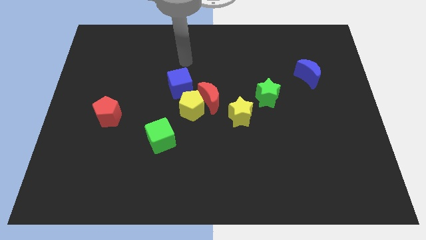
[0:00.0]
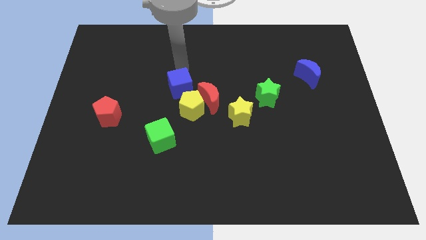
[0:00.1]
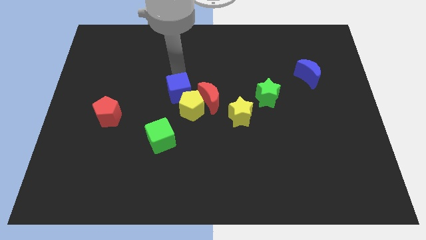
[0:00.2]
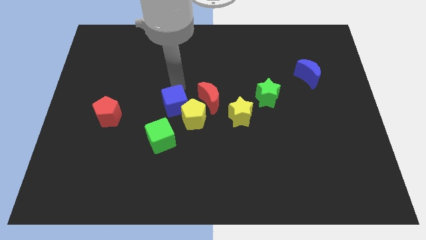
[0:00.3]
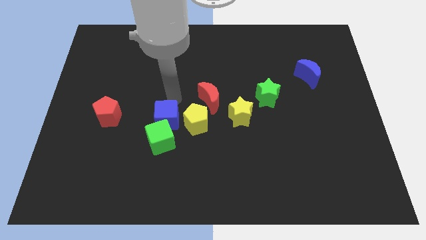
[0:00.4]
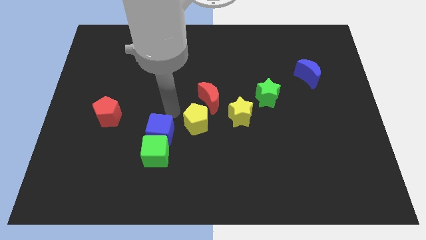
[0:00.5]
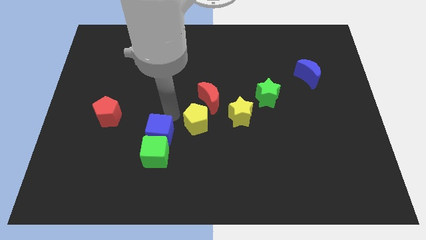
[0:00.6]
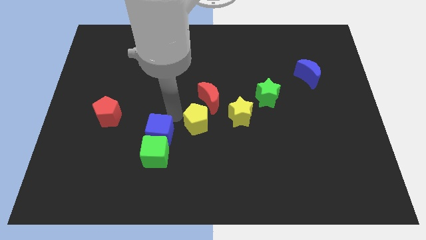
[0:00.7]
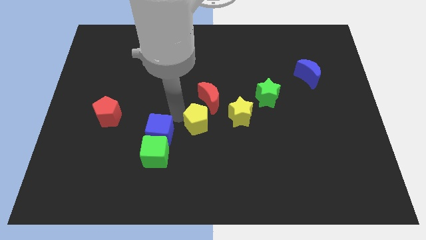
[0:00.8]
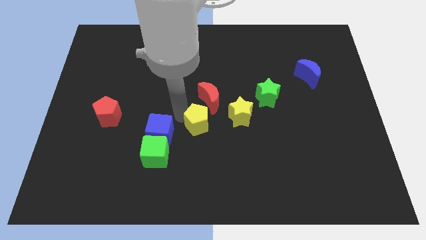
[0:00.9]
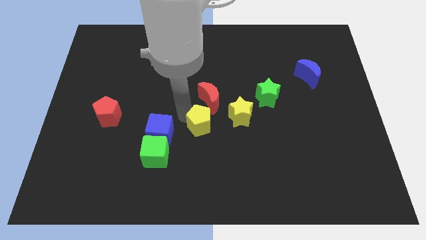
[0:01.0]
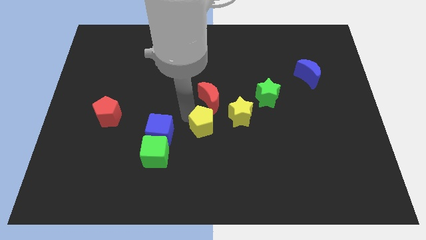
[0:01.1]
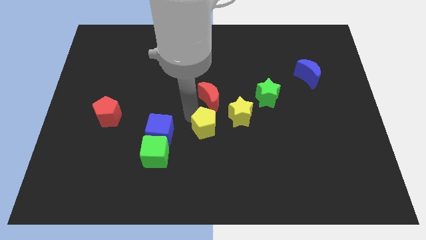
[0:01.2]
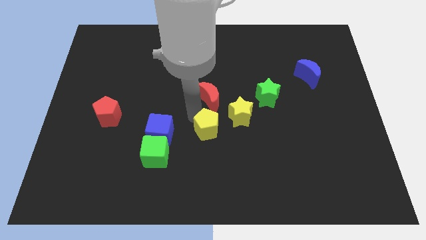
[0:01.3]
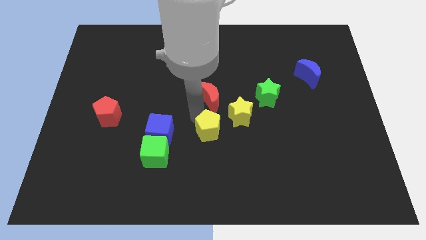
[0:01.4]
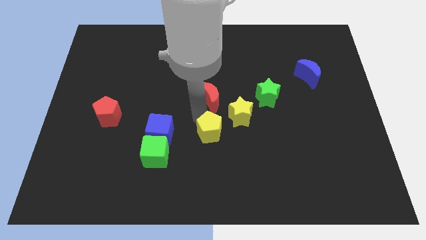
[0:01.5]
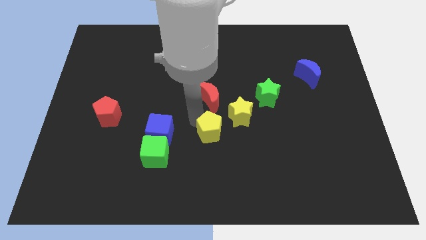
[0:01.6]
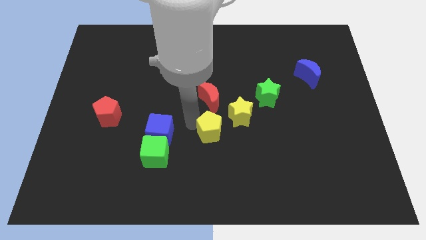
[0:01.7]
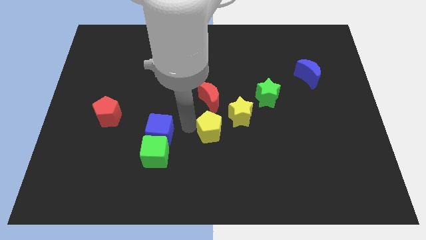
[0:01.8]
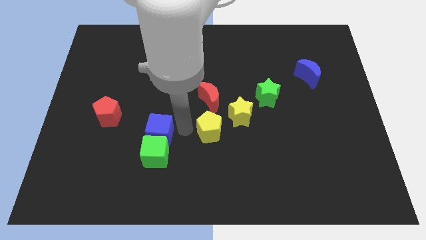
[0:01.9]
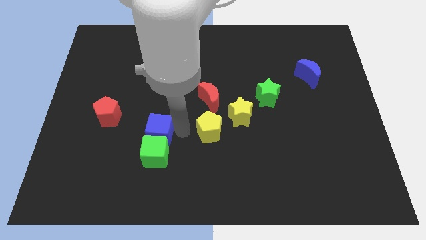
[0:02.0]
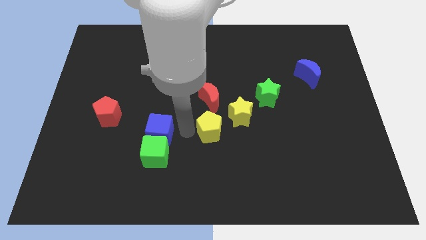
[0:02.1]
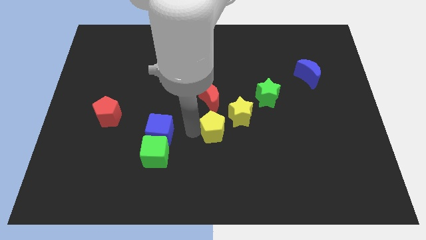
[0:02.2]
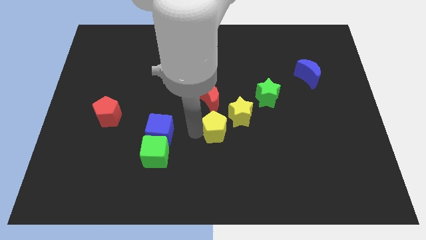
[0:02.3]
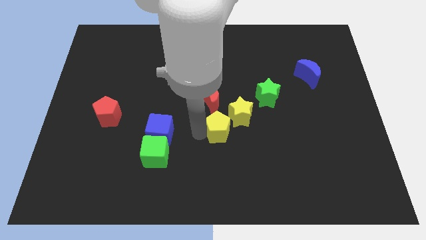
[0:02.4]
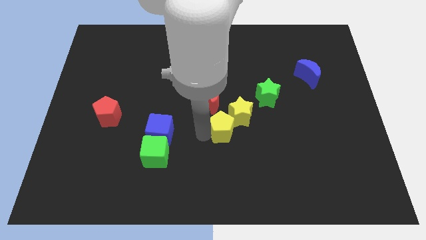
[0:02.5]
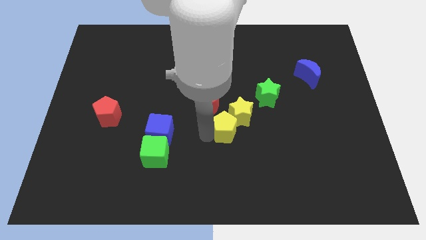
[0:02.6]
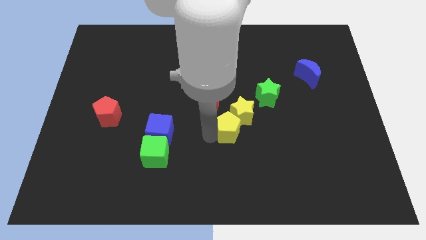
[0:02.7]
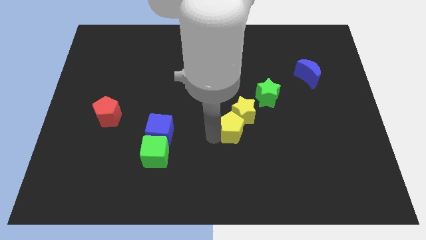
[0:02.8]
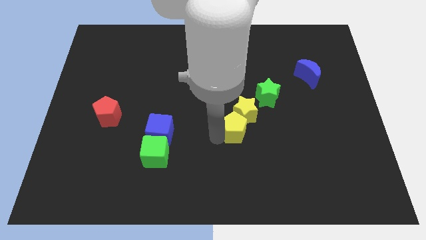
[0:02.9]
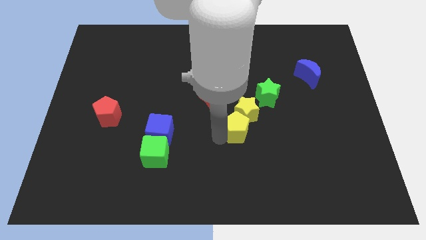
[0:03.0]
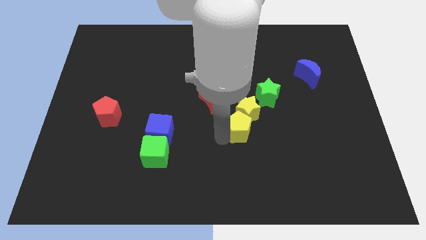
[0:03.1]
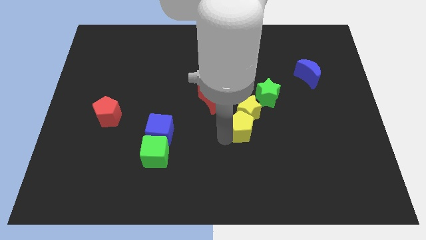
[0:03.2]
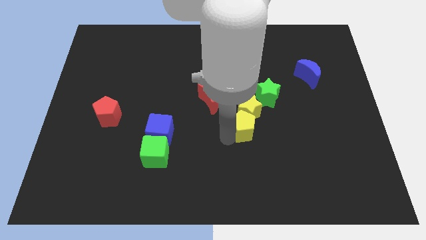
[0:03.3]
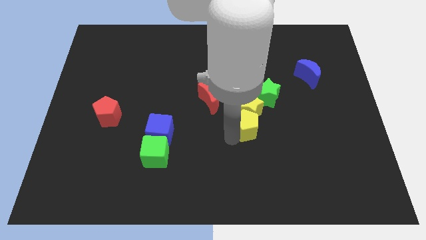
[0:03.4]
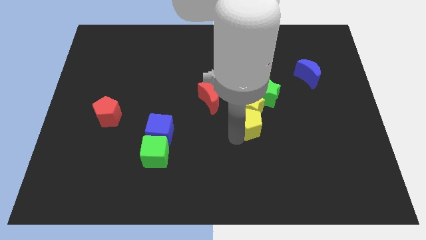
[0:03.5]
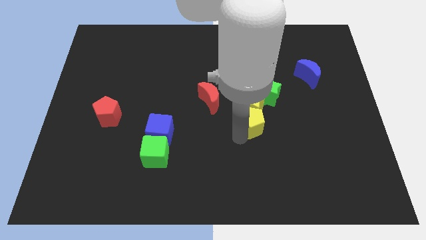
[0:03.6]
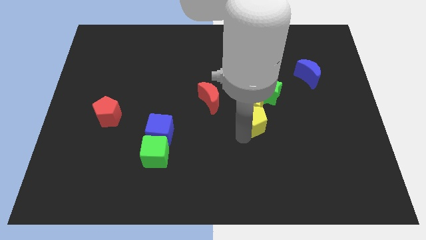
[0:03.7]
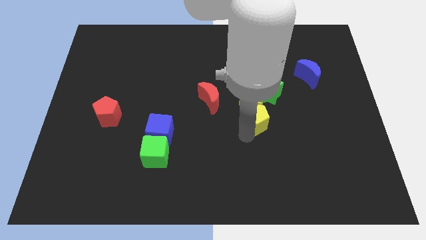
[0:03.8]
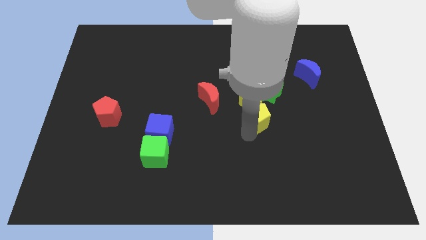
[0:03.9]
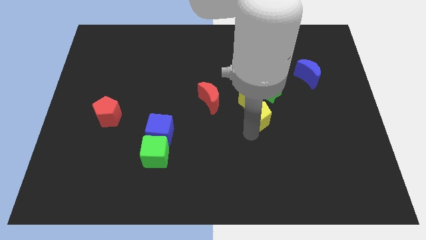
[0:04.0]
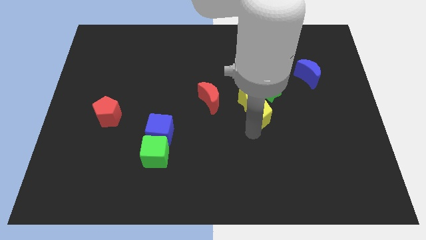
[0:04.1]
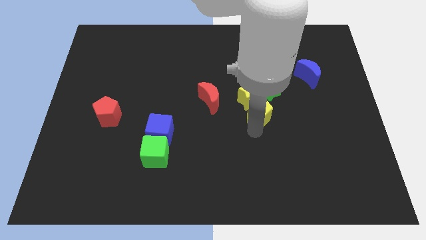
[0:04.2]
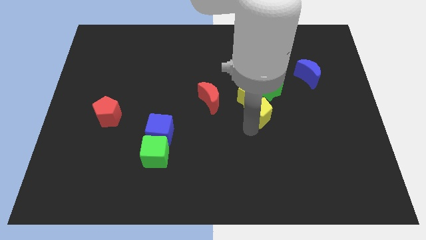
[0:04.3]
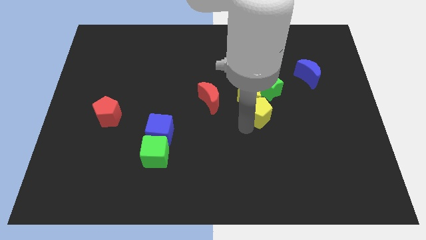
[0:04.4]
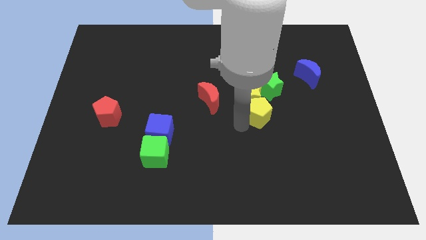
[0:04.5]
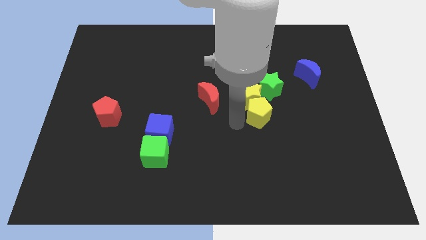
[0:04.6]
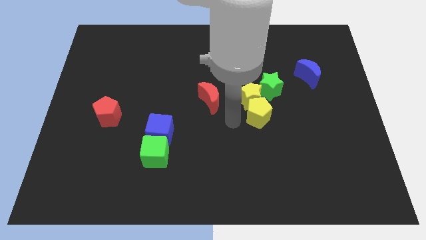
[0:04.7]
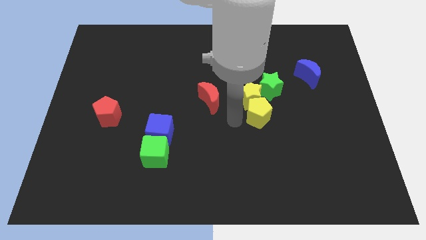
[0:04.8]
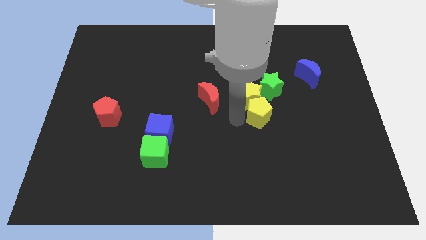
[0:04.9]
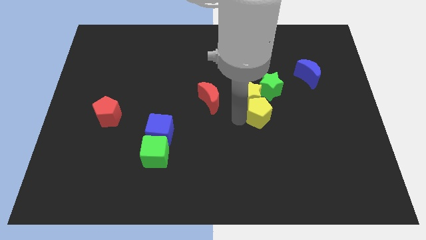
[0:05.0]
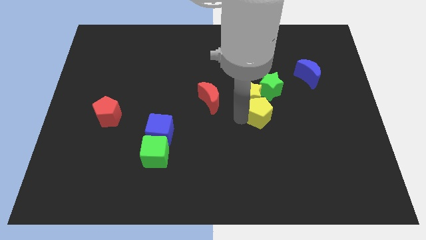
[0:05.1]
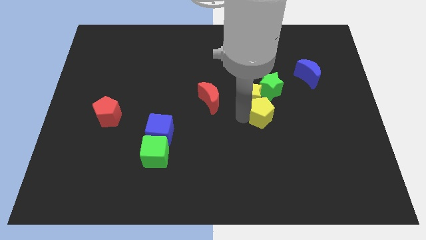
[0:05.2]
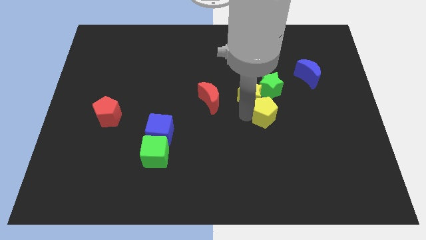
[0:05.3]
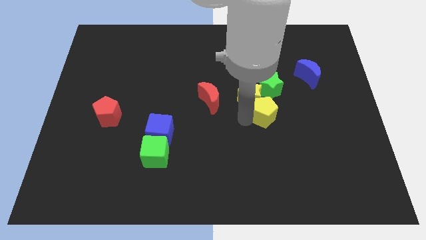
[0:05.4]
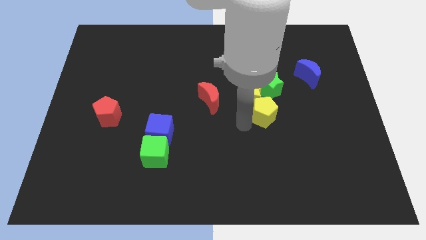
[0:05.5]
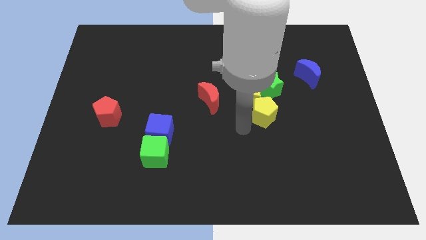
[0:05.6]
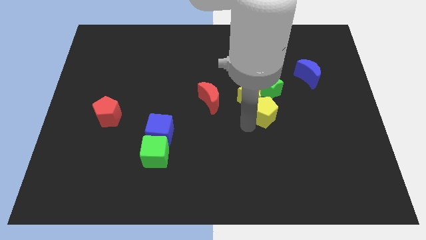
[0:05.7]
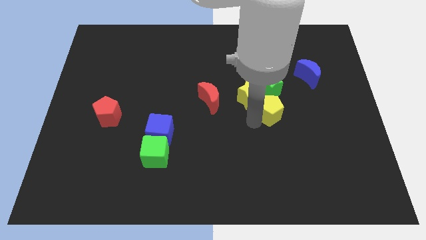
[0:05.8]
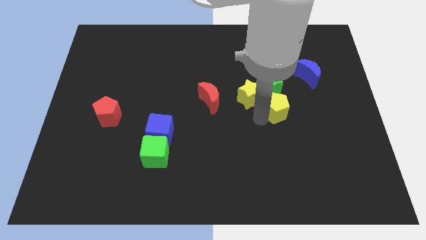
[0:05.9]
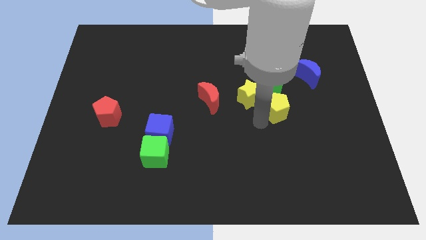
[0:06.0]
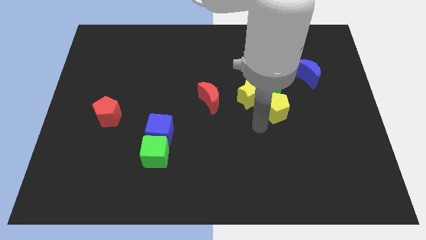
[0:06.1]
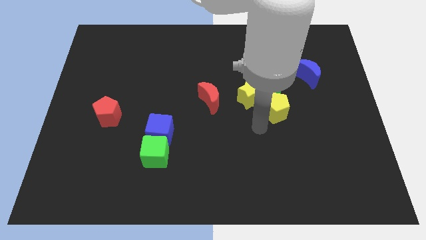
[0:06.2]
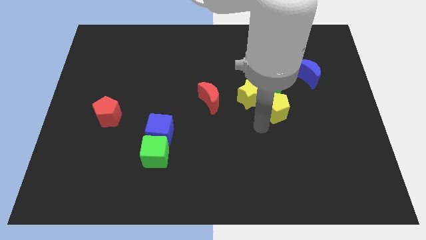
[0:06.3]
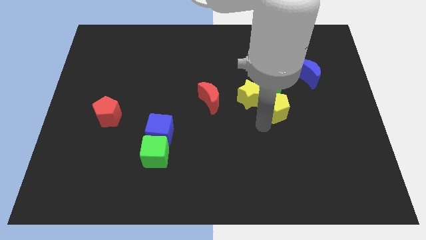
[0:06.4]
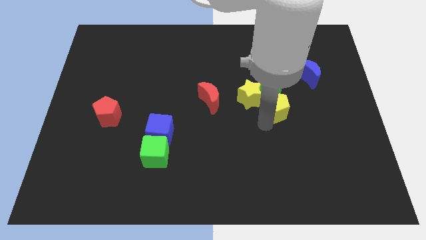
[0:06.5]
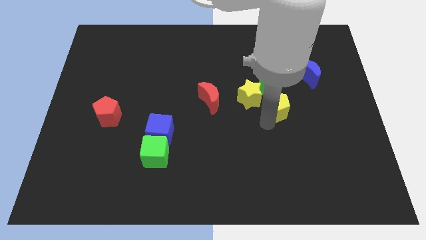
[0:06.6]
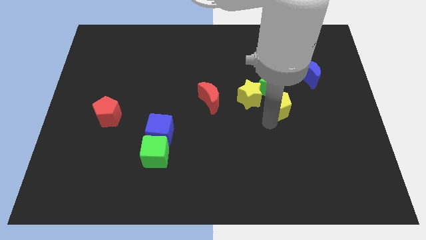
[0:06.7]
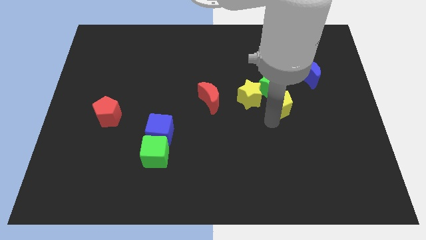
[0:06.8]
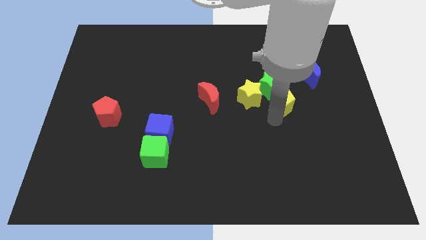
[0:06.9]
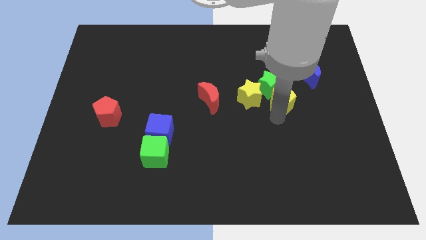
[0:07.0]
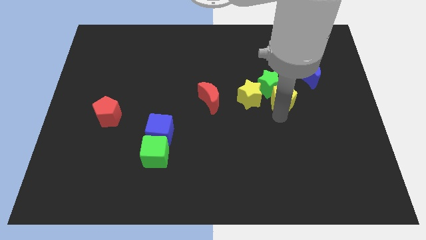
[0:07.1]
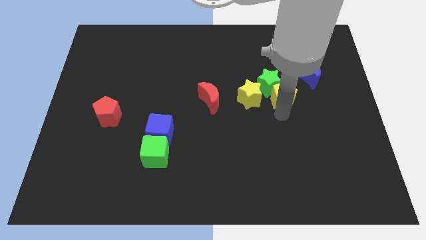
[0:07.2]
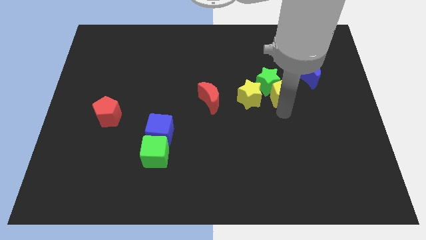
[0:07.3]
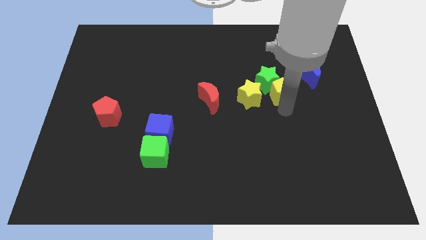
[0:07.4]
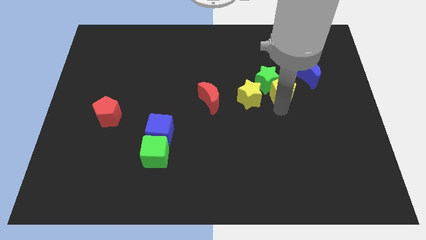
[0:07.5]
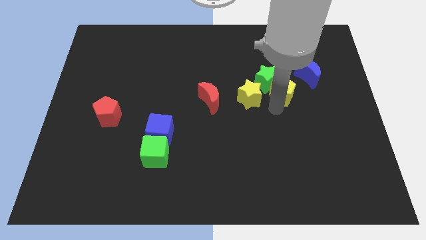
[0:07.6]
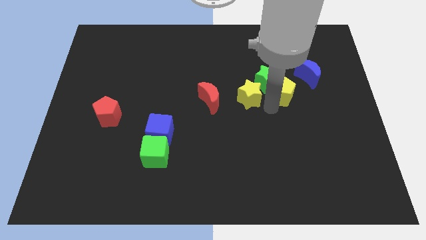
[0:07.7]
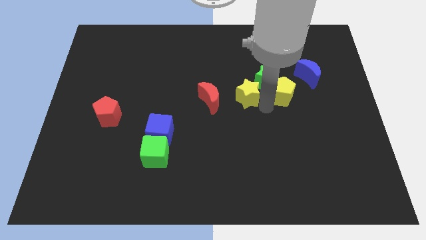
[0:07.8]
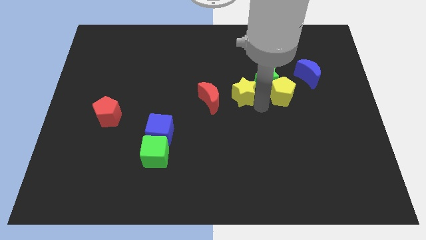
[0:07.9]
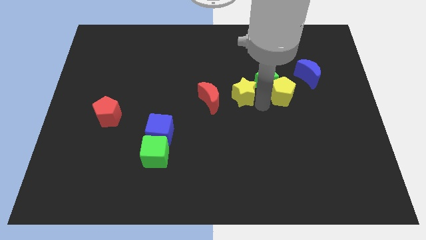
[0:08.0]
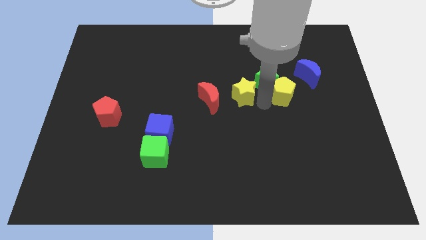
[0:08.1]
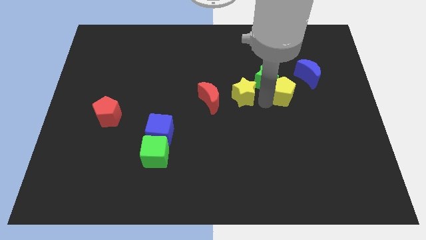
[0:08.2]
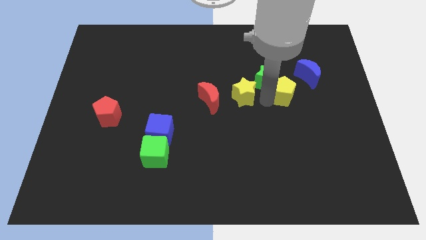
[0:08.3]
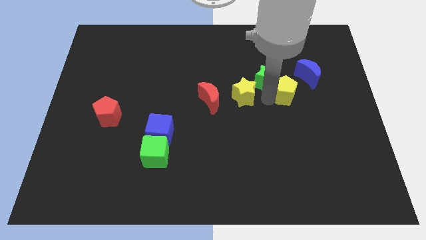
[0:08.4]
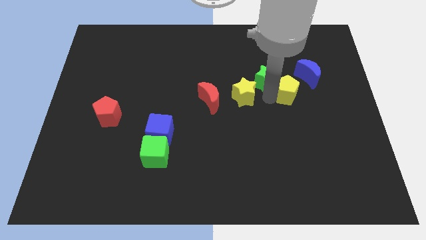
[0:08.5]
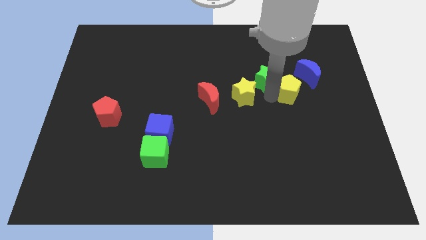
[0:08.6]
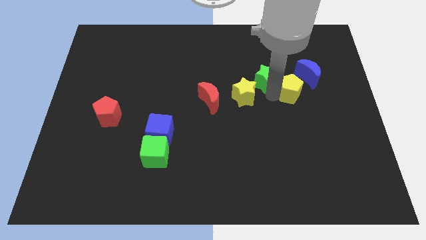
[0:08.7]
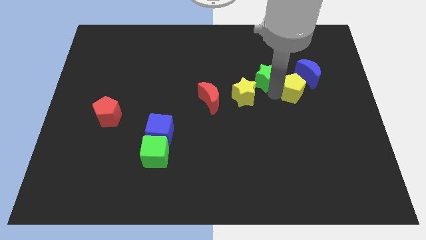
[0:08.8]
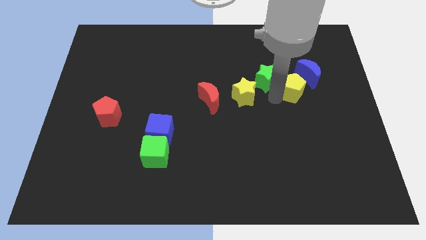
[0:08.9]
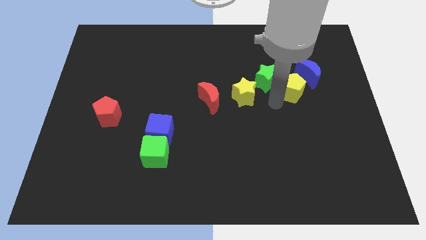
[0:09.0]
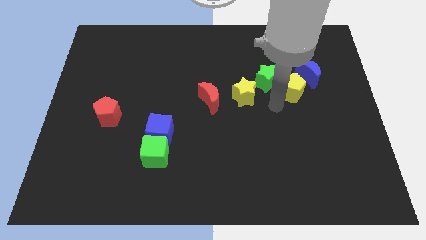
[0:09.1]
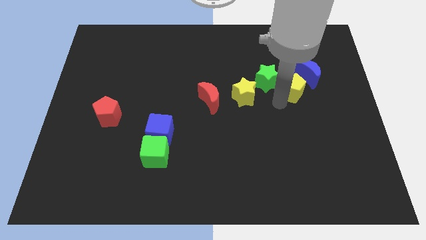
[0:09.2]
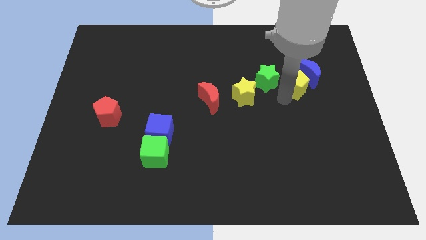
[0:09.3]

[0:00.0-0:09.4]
move the yellow pentagon to the blue moon
